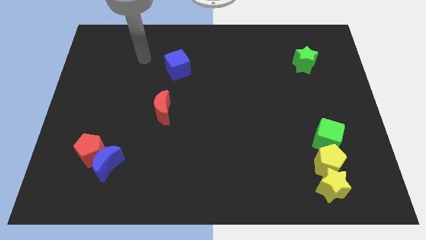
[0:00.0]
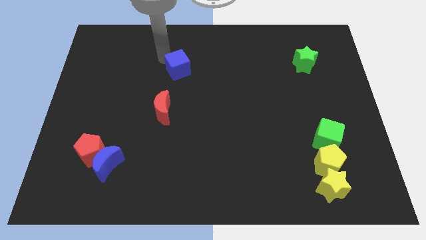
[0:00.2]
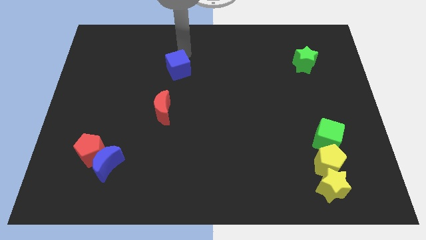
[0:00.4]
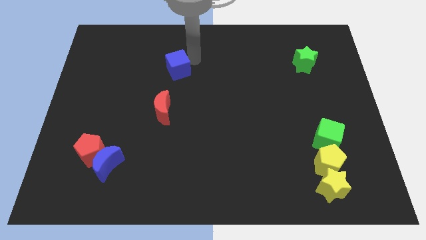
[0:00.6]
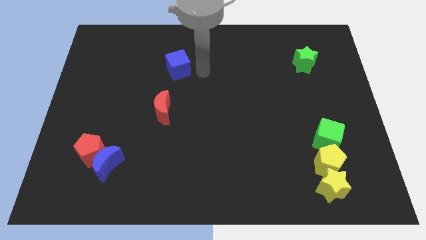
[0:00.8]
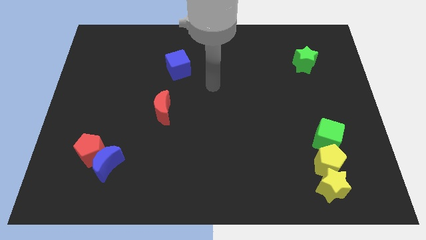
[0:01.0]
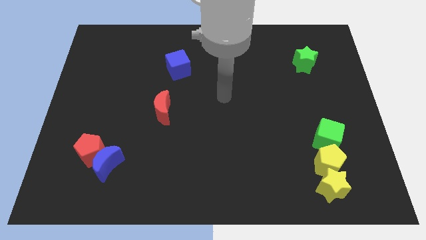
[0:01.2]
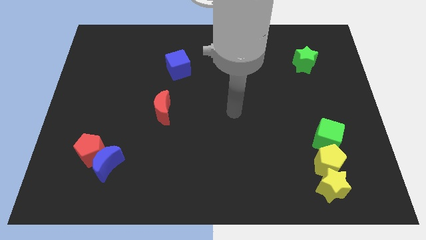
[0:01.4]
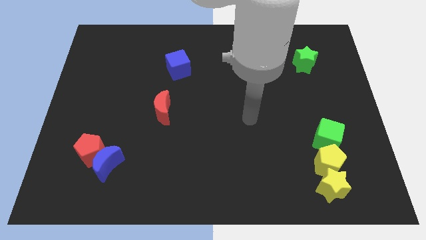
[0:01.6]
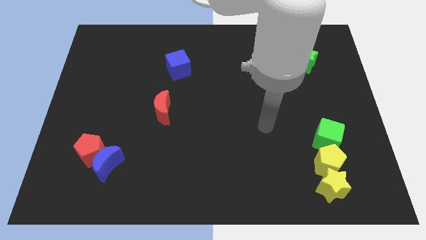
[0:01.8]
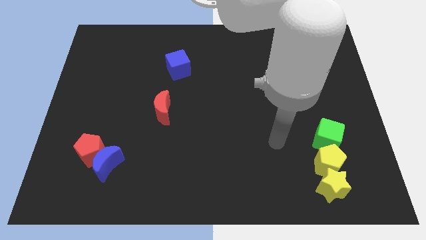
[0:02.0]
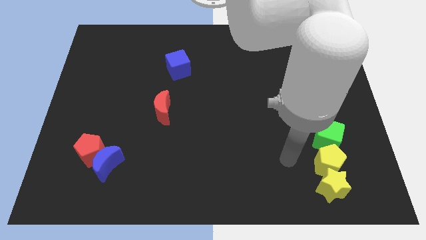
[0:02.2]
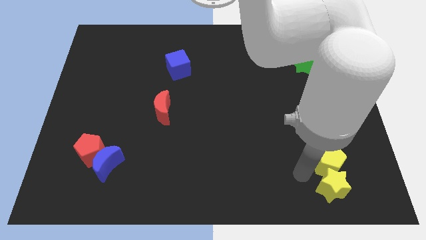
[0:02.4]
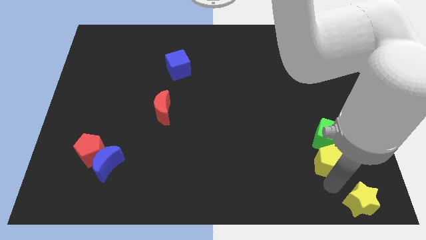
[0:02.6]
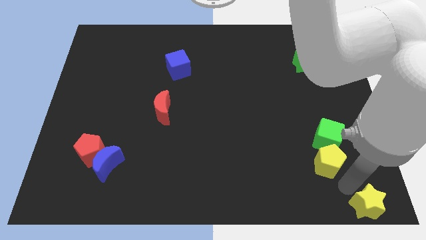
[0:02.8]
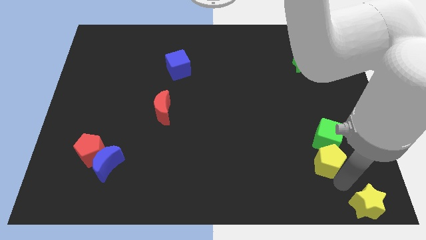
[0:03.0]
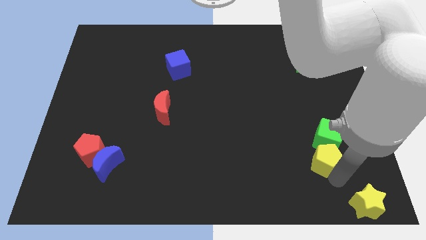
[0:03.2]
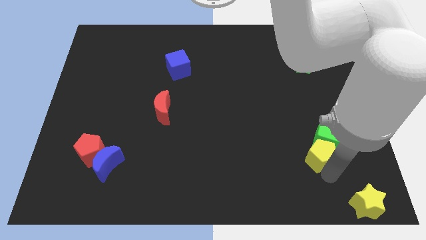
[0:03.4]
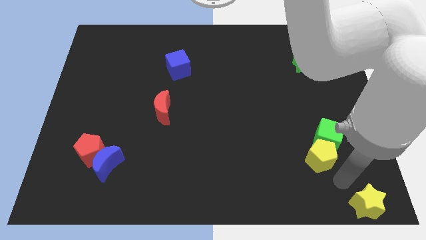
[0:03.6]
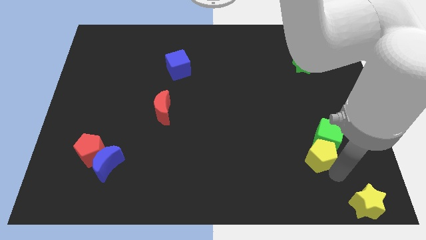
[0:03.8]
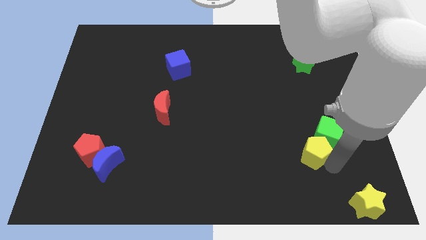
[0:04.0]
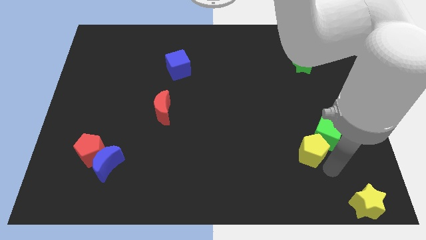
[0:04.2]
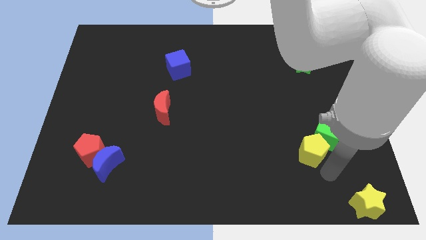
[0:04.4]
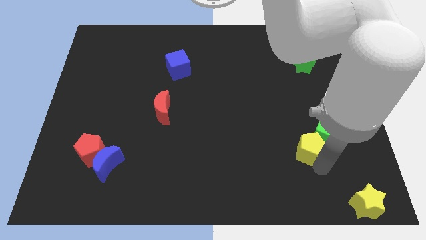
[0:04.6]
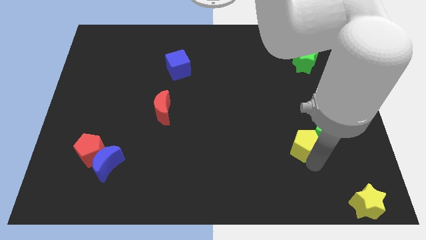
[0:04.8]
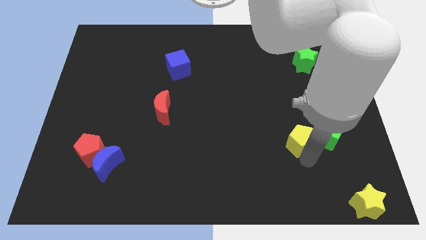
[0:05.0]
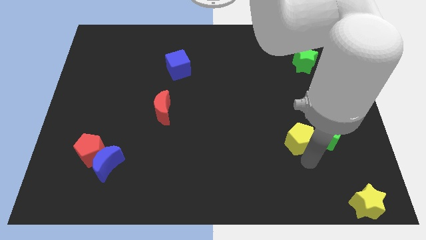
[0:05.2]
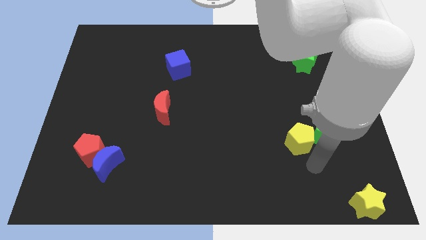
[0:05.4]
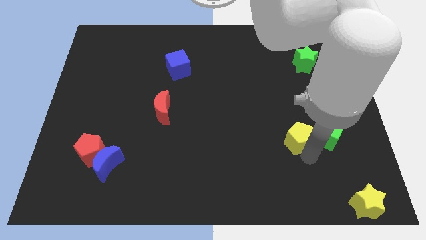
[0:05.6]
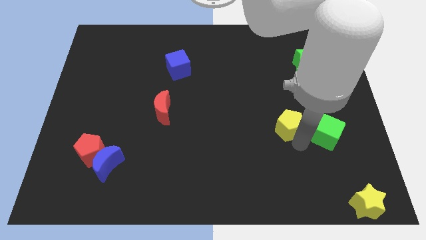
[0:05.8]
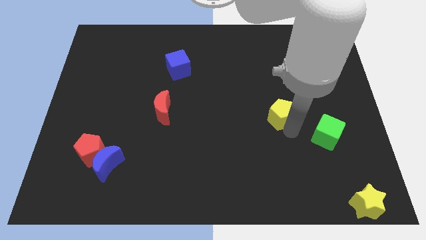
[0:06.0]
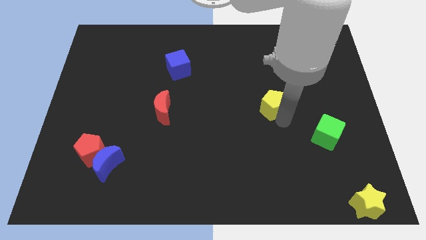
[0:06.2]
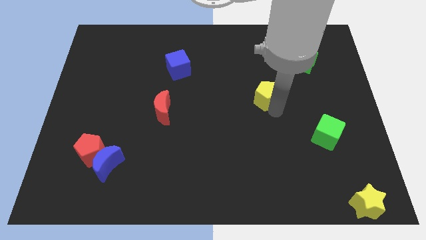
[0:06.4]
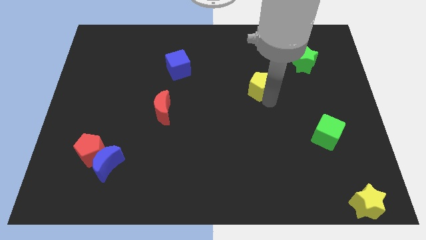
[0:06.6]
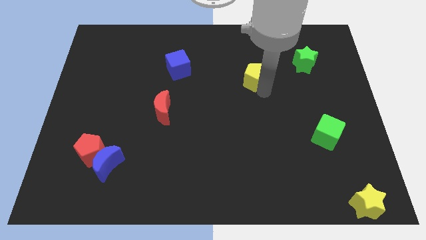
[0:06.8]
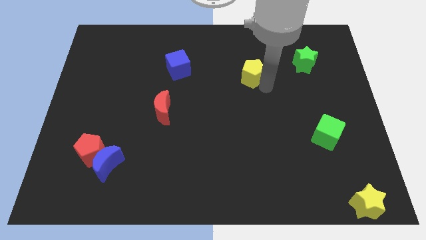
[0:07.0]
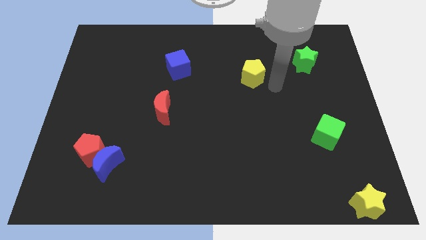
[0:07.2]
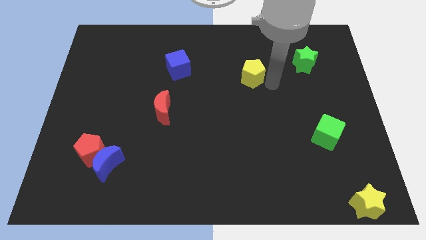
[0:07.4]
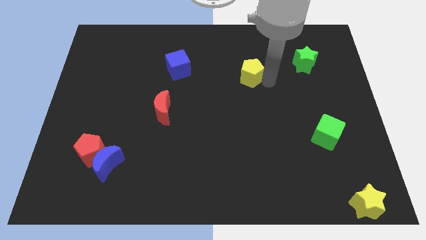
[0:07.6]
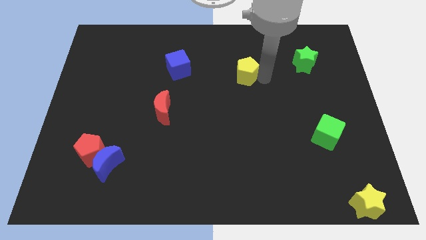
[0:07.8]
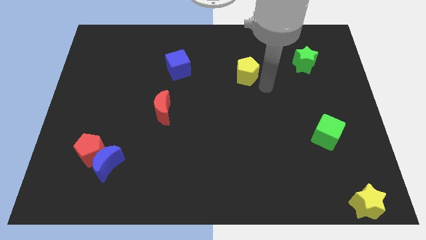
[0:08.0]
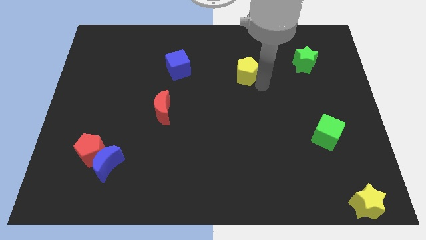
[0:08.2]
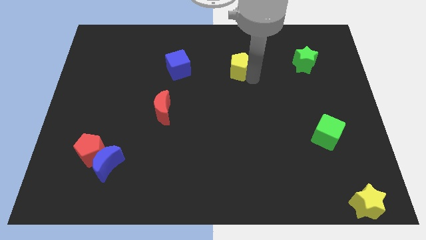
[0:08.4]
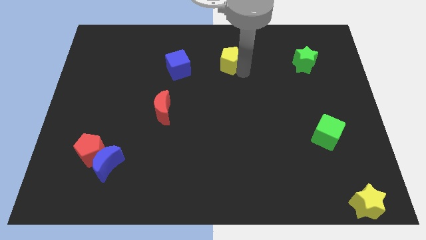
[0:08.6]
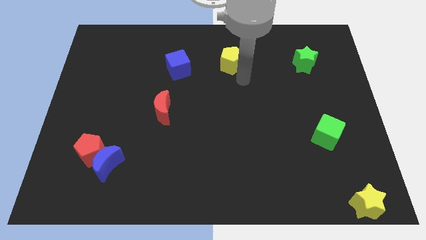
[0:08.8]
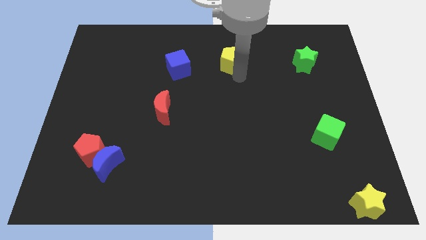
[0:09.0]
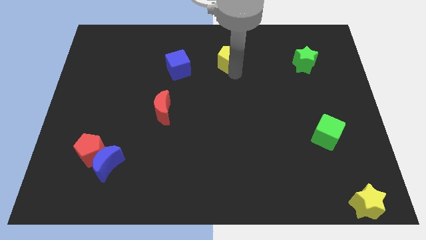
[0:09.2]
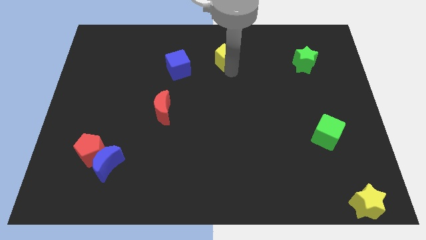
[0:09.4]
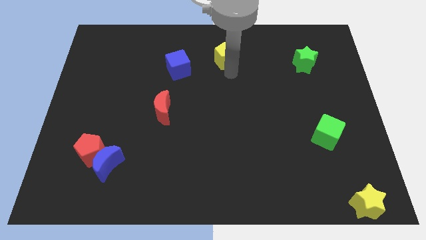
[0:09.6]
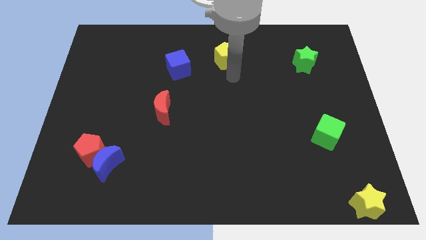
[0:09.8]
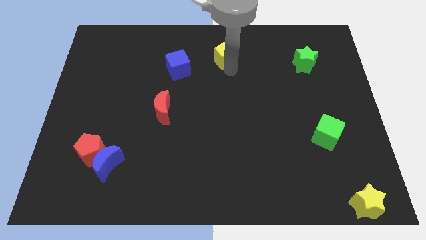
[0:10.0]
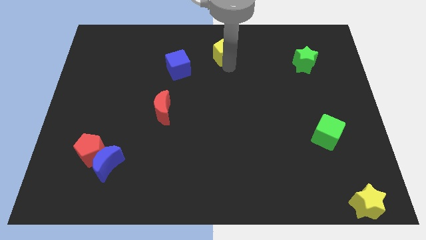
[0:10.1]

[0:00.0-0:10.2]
move the yellow pentagon to the top side

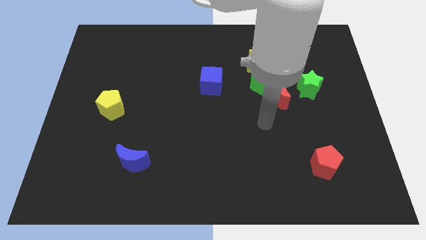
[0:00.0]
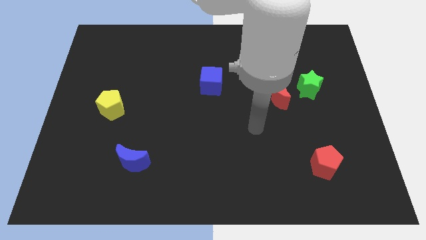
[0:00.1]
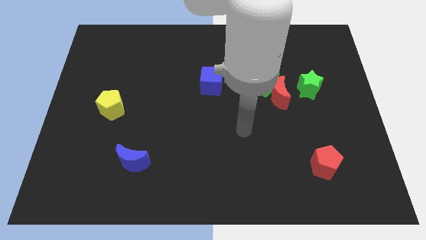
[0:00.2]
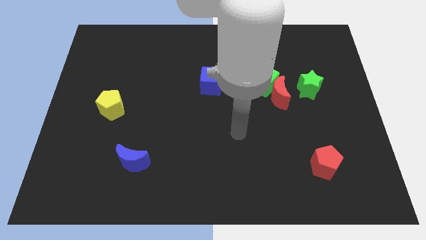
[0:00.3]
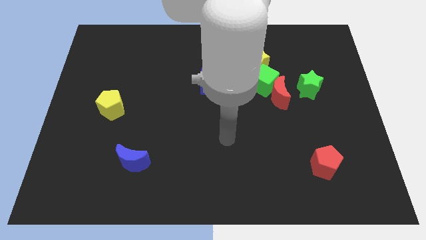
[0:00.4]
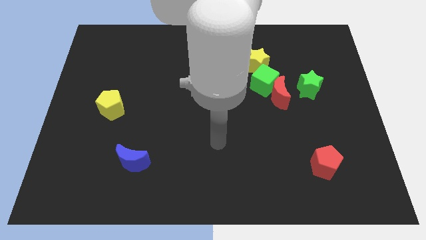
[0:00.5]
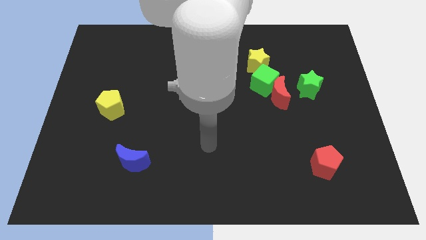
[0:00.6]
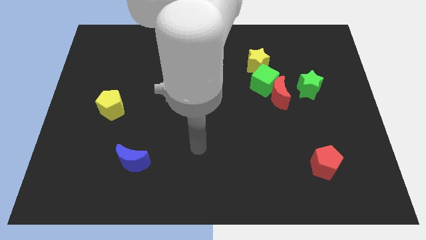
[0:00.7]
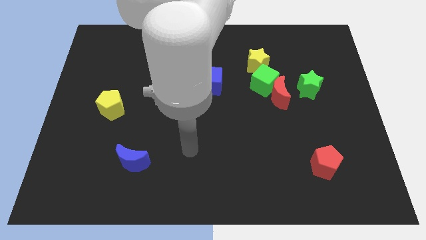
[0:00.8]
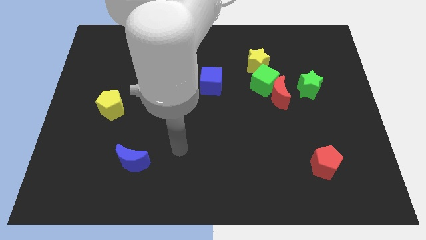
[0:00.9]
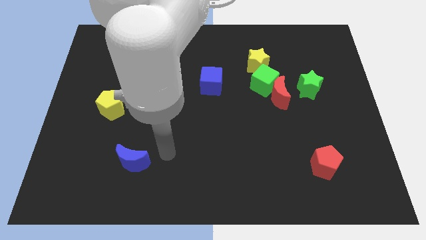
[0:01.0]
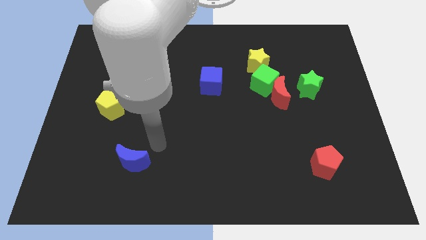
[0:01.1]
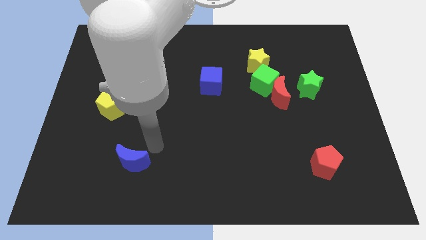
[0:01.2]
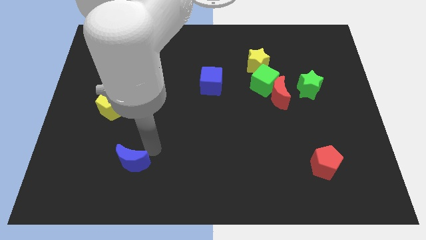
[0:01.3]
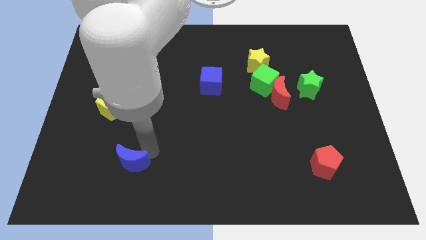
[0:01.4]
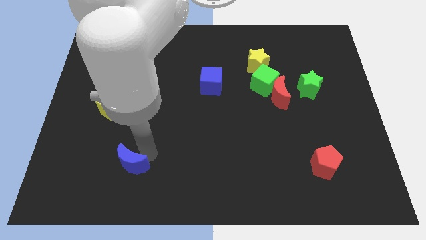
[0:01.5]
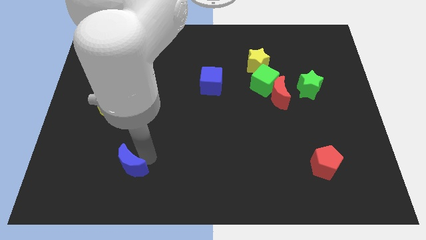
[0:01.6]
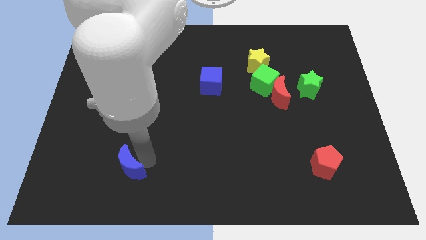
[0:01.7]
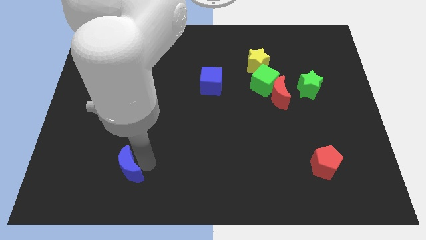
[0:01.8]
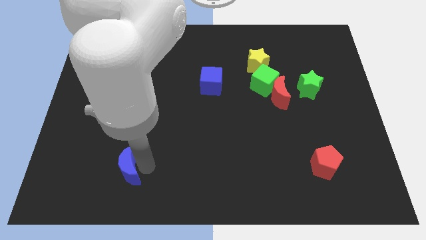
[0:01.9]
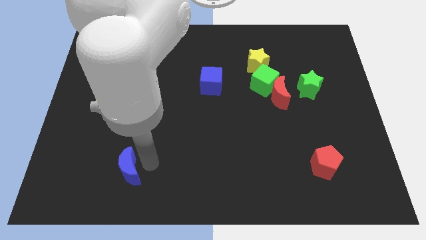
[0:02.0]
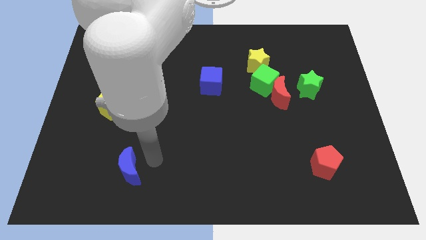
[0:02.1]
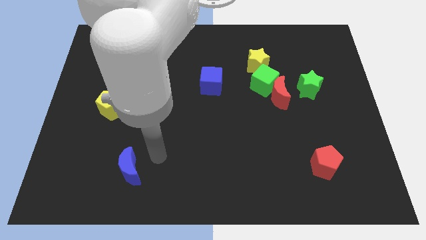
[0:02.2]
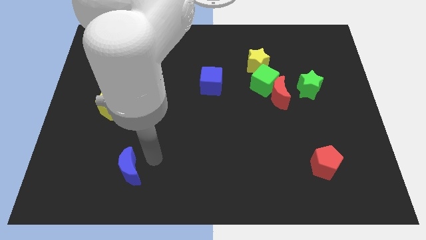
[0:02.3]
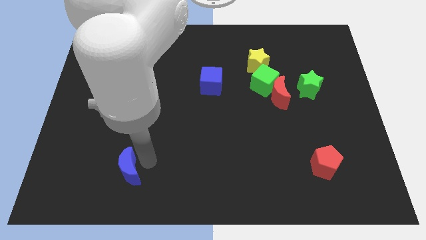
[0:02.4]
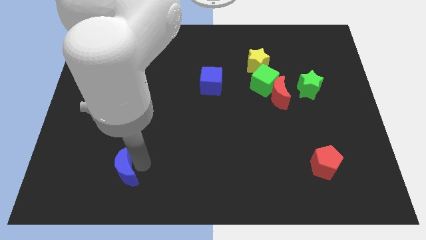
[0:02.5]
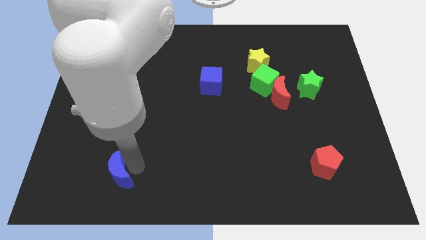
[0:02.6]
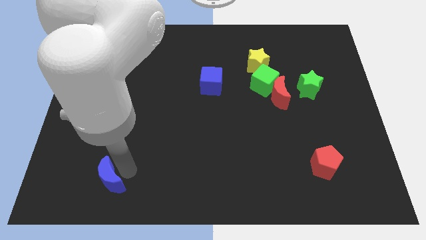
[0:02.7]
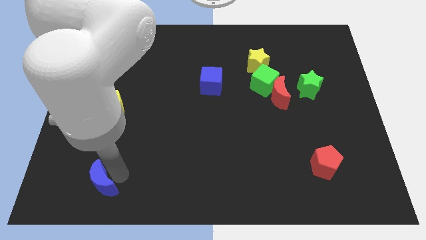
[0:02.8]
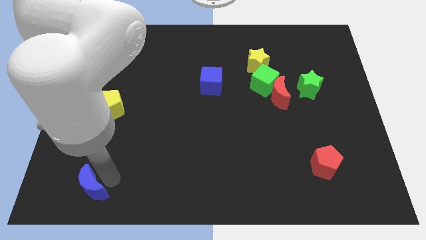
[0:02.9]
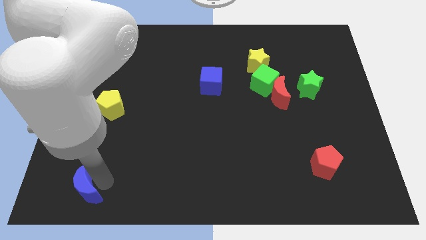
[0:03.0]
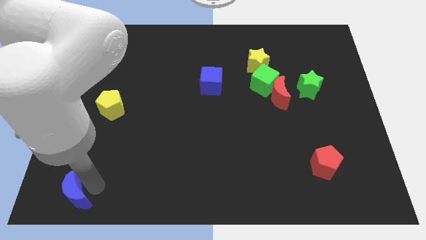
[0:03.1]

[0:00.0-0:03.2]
move the blue moon to the bottom left
